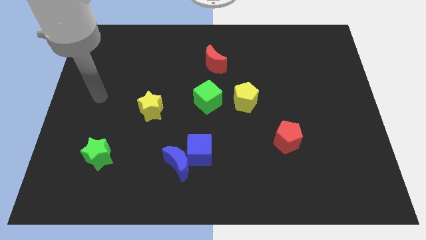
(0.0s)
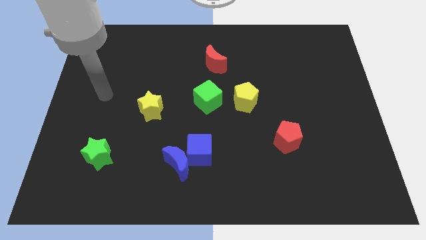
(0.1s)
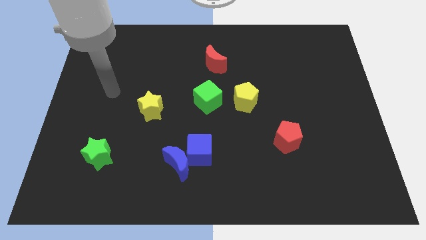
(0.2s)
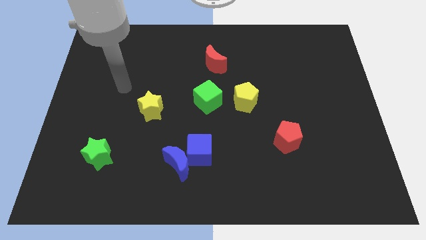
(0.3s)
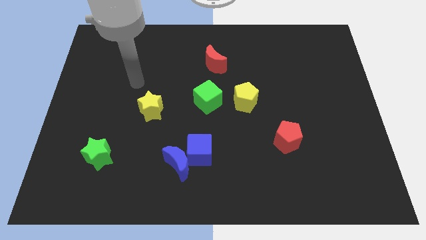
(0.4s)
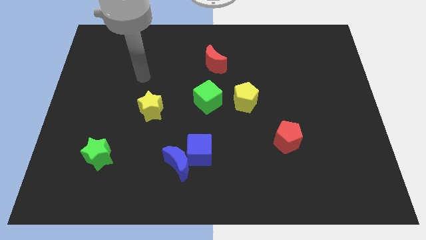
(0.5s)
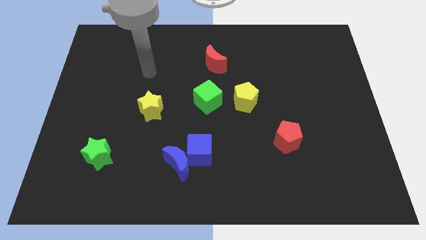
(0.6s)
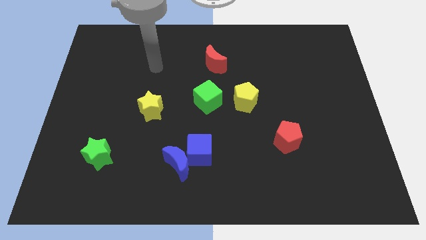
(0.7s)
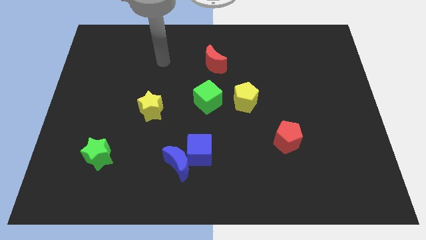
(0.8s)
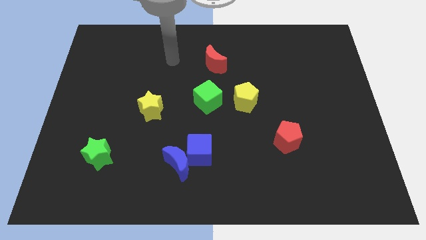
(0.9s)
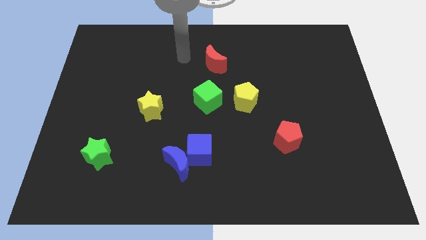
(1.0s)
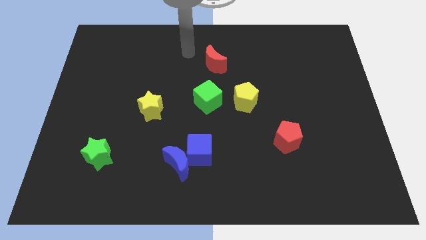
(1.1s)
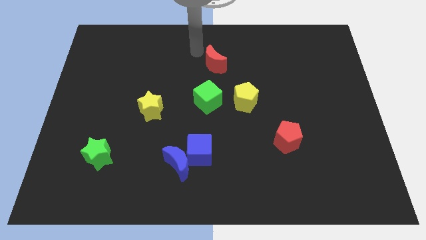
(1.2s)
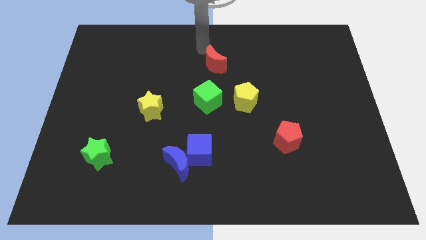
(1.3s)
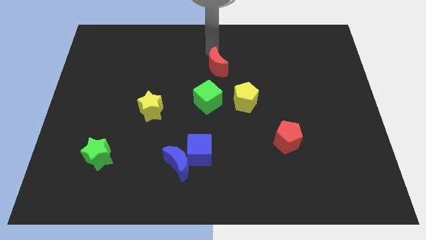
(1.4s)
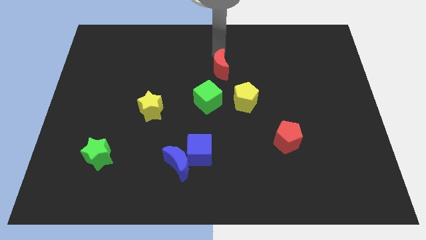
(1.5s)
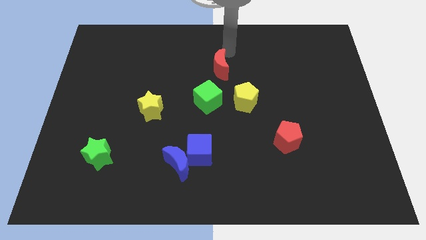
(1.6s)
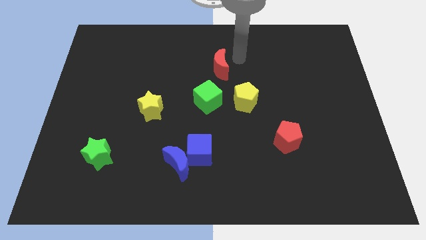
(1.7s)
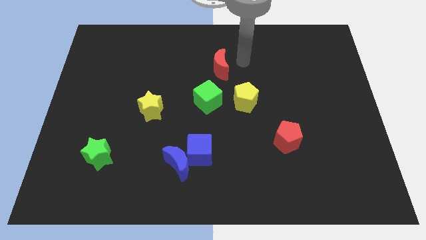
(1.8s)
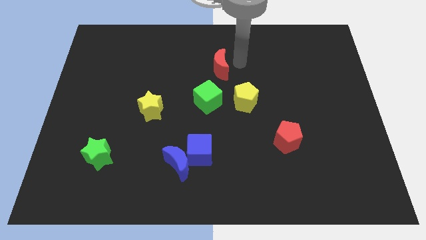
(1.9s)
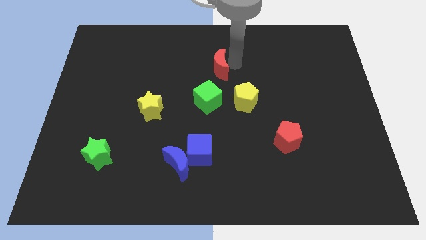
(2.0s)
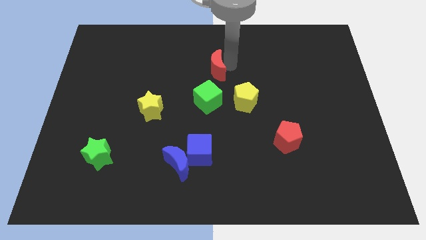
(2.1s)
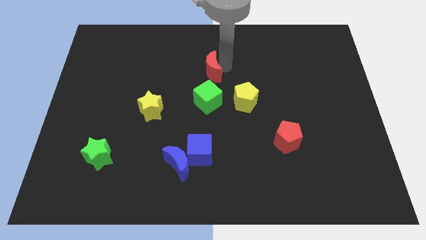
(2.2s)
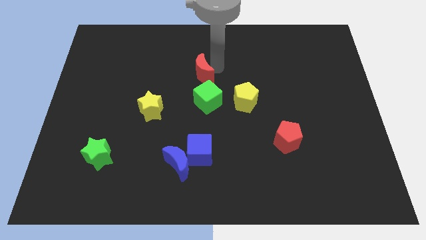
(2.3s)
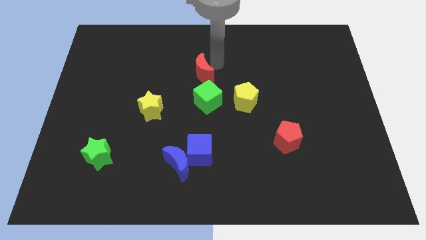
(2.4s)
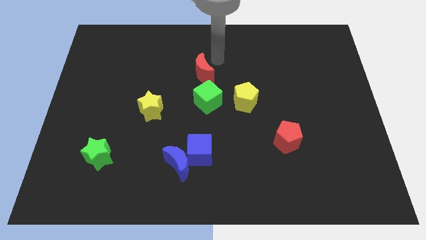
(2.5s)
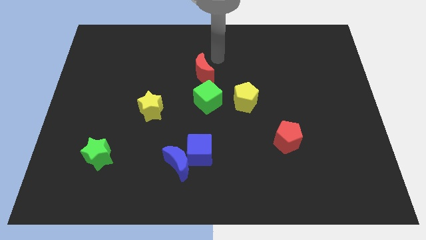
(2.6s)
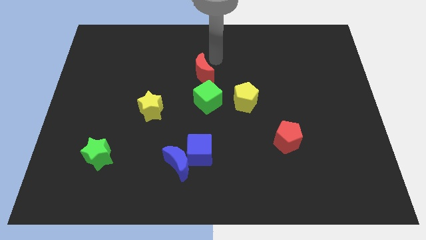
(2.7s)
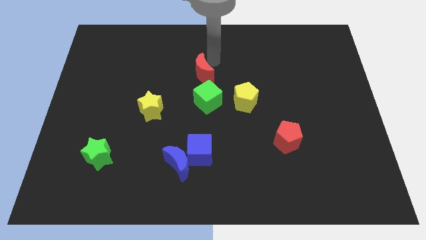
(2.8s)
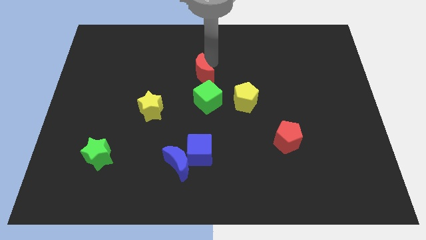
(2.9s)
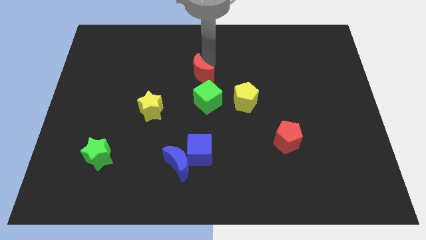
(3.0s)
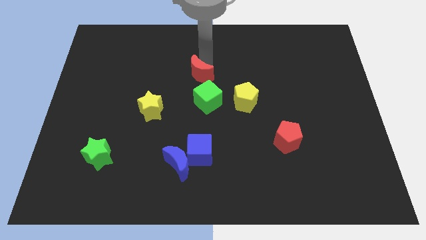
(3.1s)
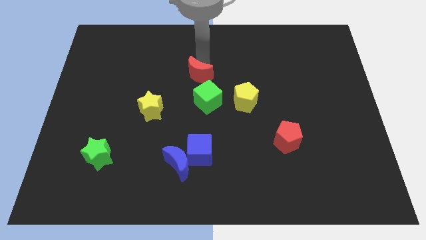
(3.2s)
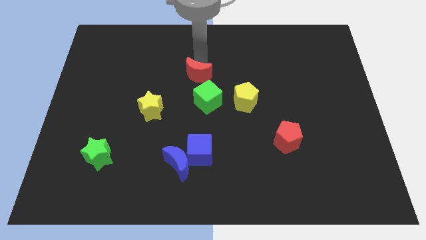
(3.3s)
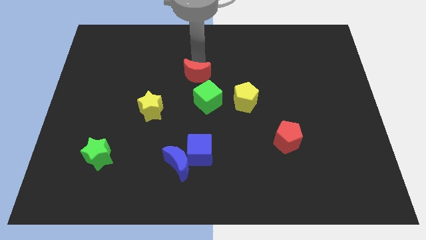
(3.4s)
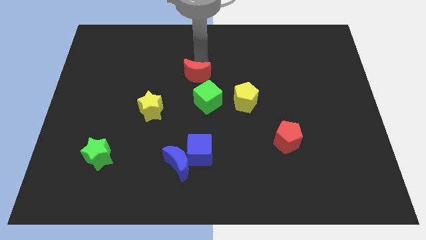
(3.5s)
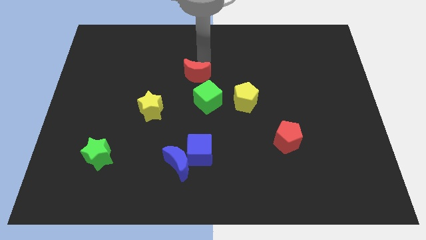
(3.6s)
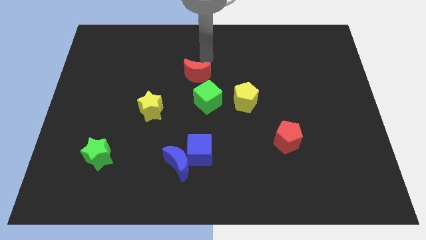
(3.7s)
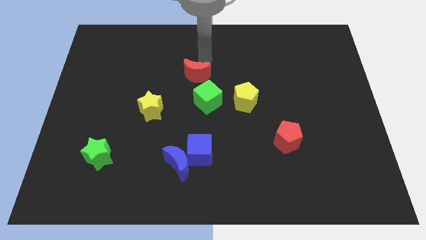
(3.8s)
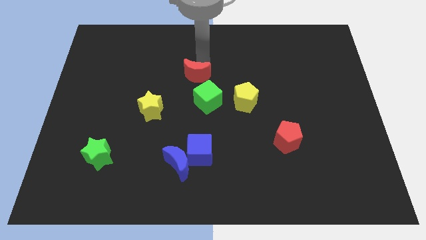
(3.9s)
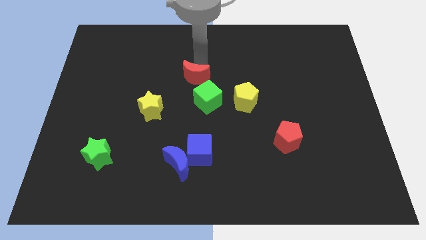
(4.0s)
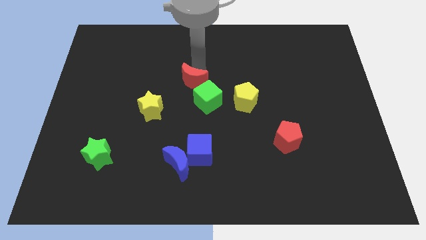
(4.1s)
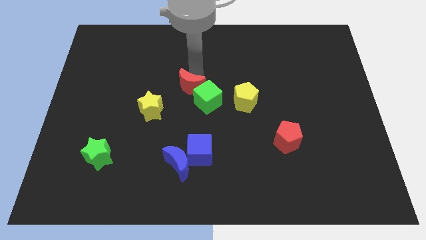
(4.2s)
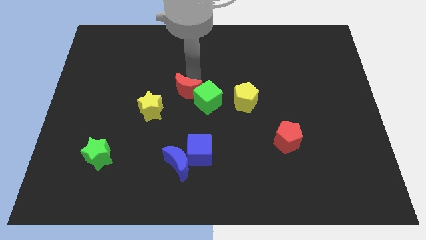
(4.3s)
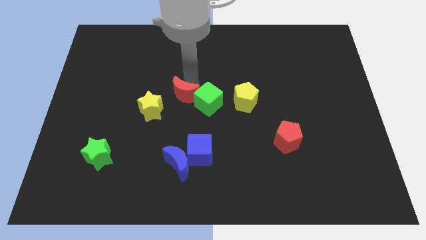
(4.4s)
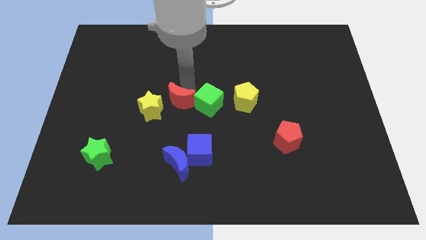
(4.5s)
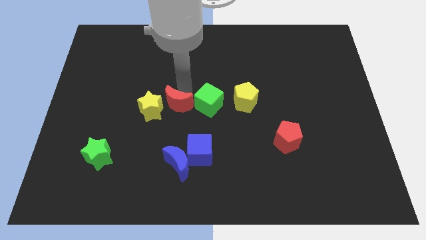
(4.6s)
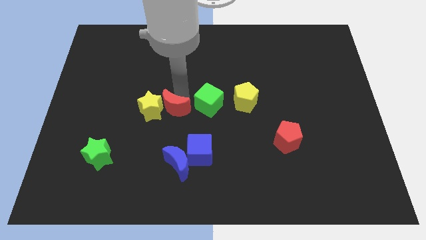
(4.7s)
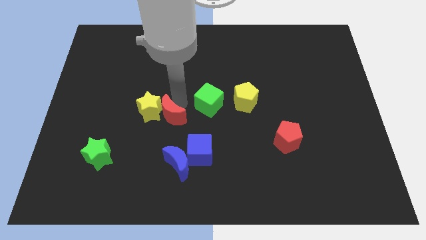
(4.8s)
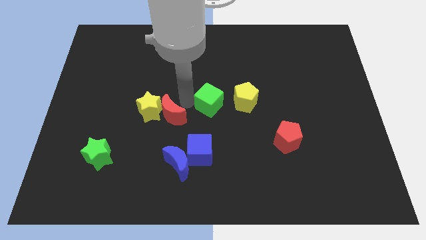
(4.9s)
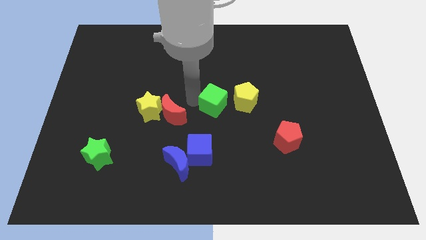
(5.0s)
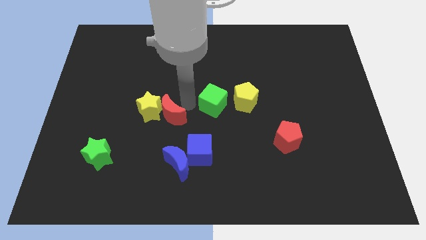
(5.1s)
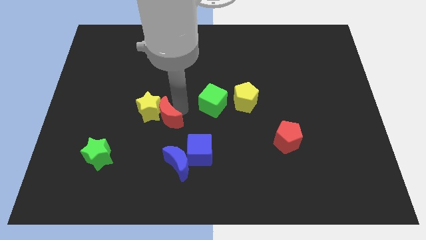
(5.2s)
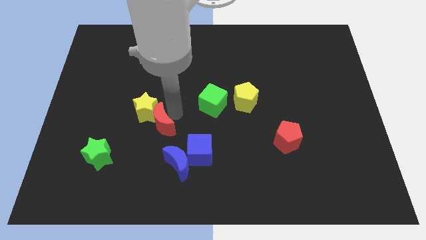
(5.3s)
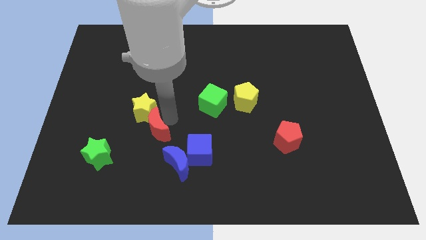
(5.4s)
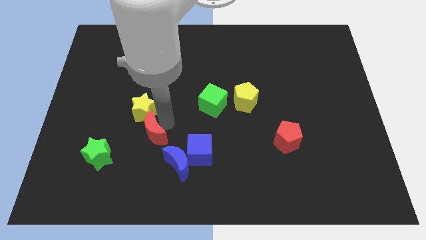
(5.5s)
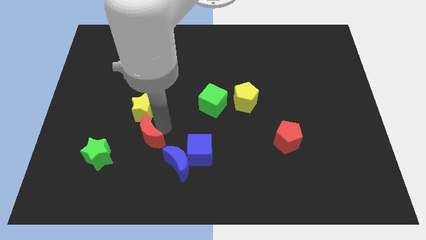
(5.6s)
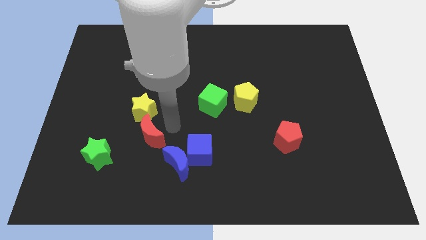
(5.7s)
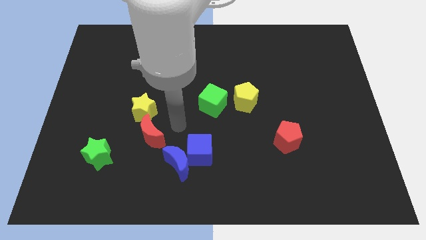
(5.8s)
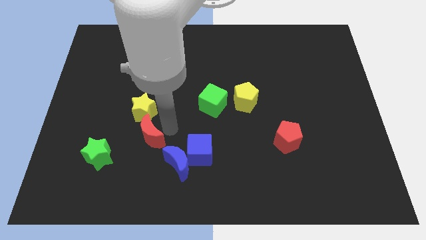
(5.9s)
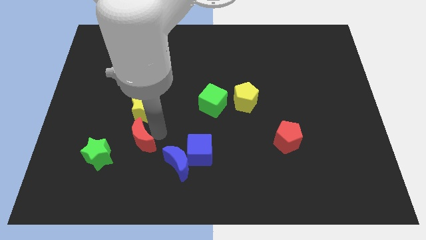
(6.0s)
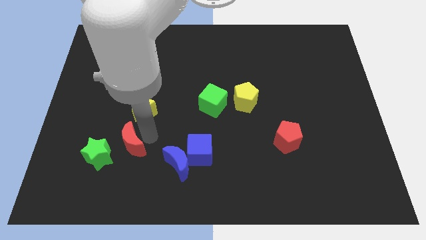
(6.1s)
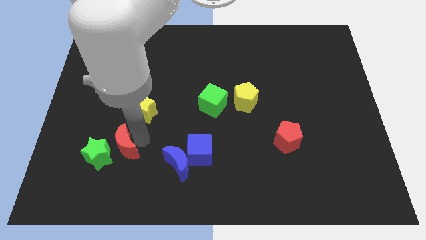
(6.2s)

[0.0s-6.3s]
push the red moon close to the green star

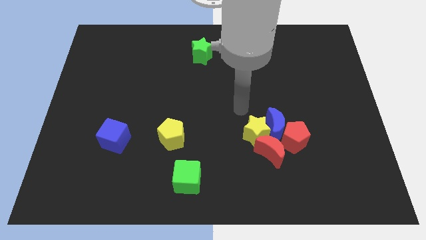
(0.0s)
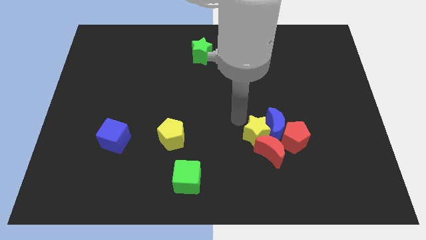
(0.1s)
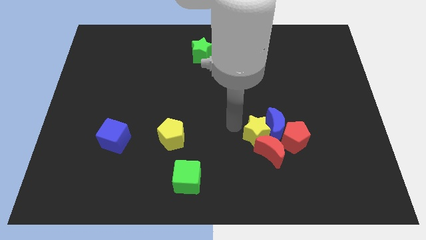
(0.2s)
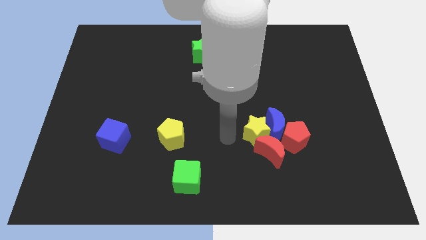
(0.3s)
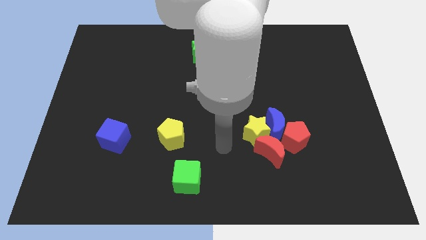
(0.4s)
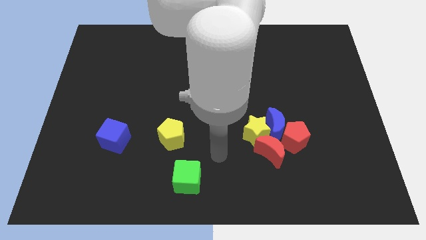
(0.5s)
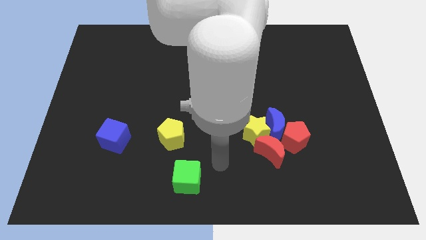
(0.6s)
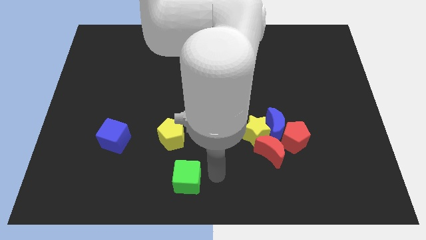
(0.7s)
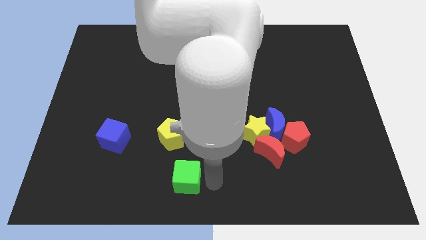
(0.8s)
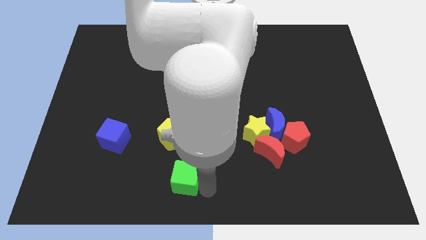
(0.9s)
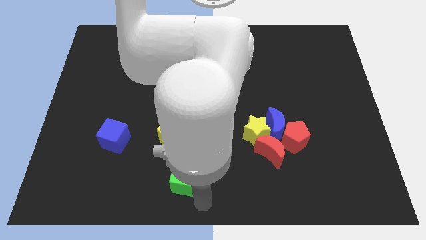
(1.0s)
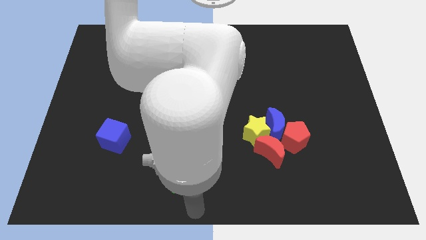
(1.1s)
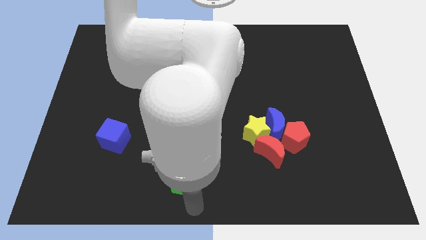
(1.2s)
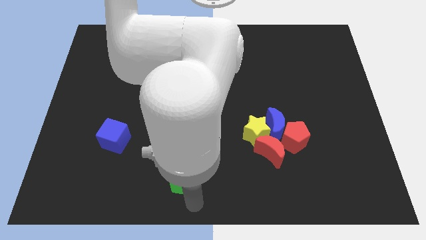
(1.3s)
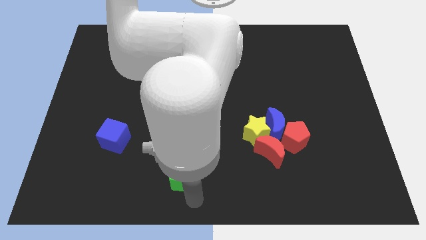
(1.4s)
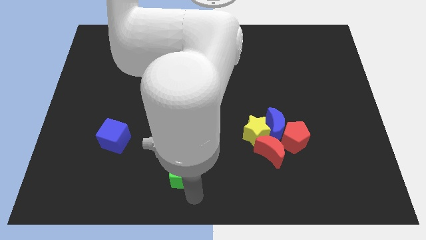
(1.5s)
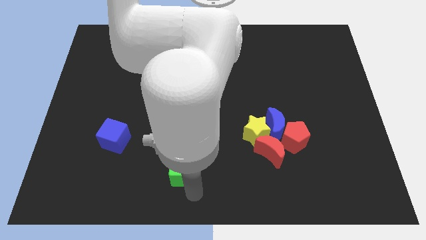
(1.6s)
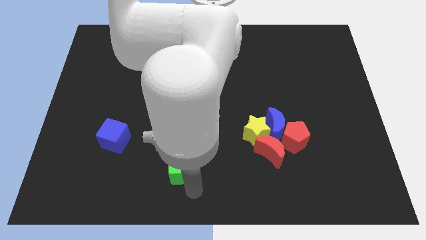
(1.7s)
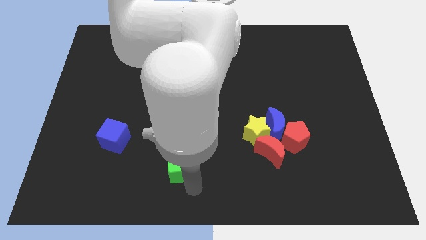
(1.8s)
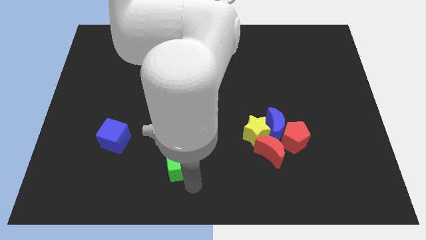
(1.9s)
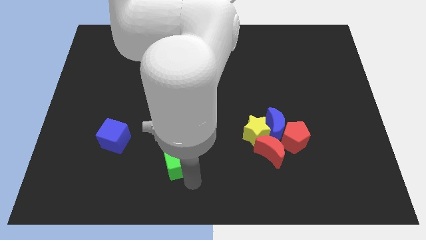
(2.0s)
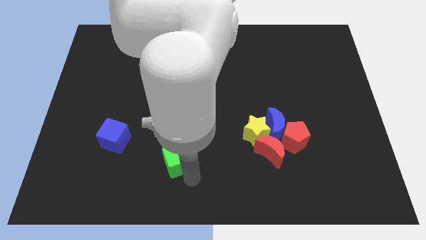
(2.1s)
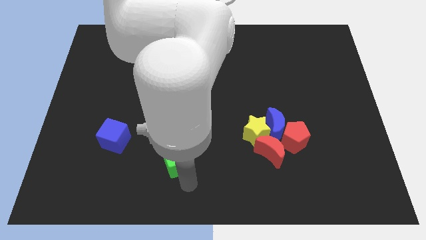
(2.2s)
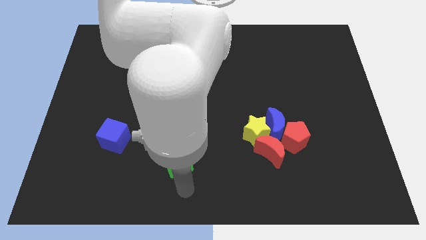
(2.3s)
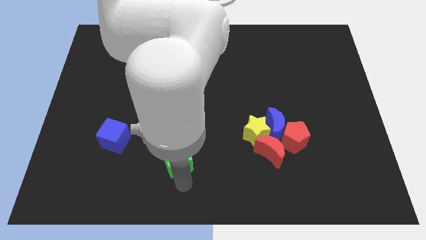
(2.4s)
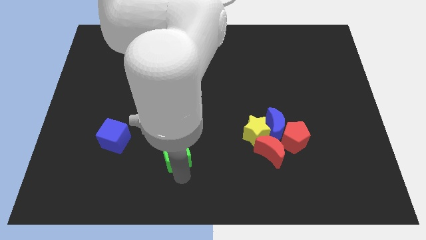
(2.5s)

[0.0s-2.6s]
slide the green cube close to the yellow pentagon
